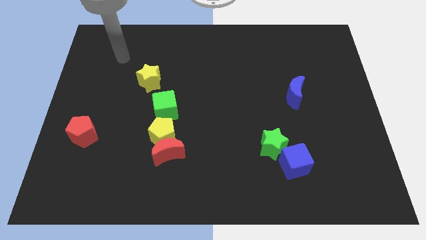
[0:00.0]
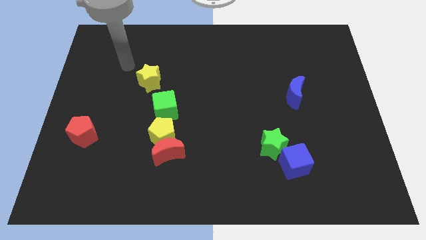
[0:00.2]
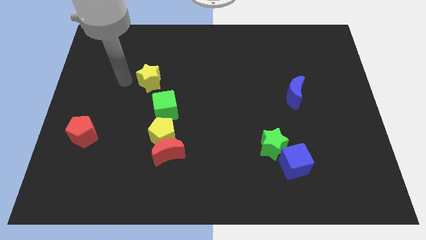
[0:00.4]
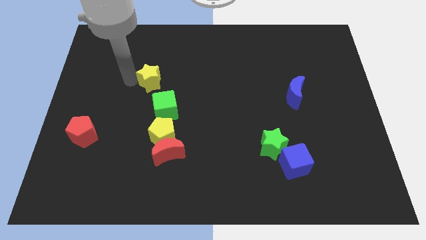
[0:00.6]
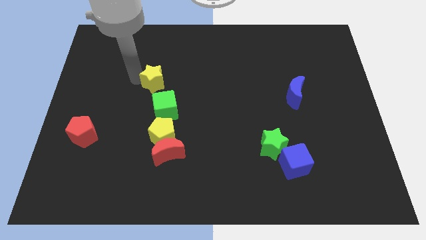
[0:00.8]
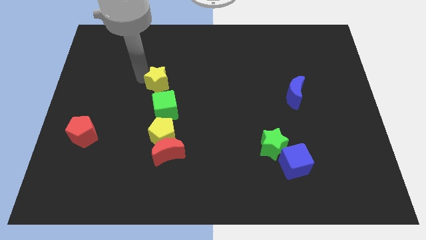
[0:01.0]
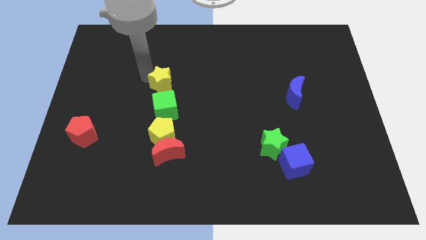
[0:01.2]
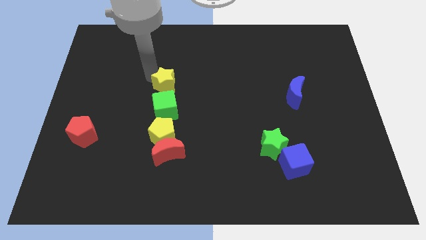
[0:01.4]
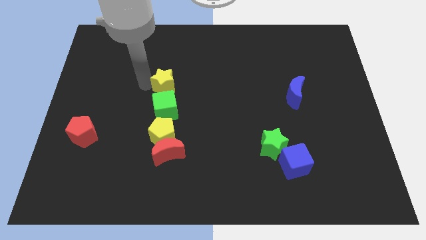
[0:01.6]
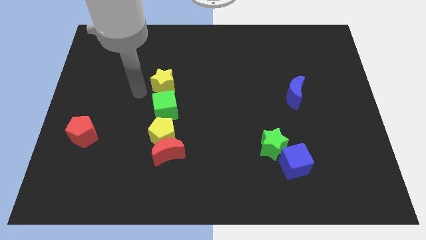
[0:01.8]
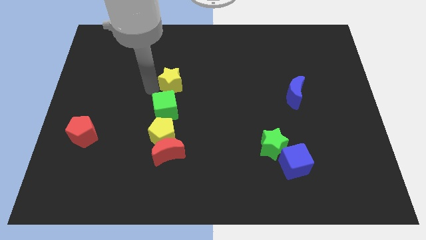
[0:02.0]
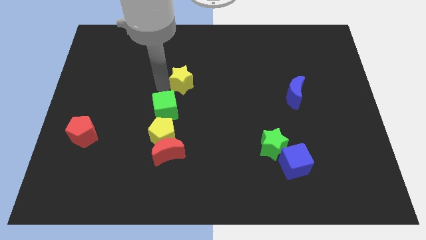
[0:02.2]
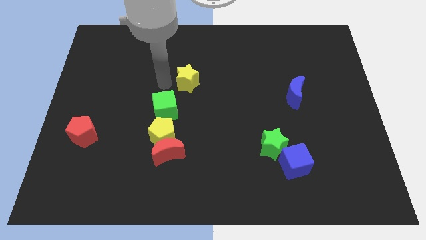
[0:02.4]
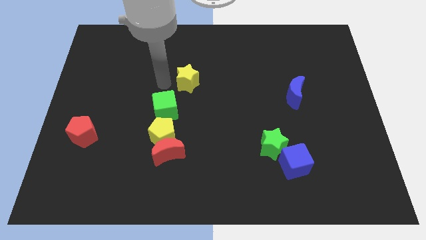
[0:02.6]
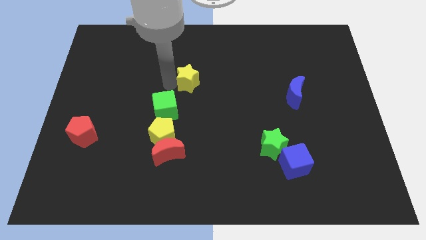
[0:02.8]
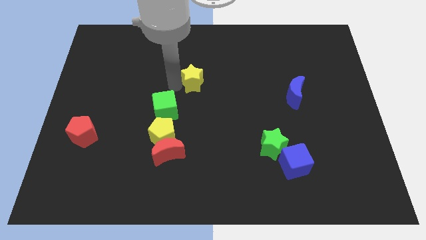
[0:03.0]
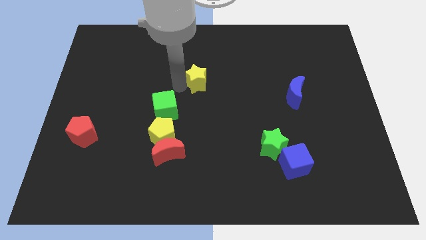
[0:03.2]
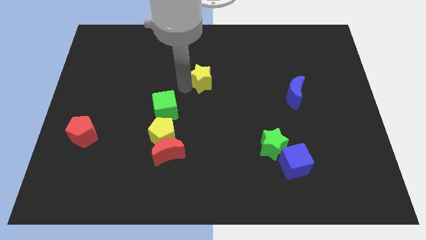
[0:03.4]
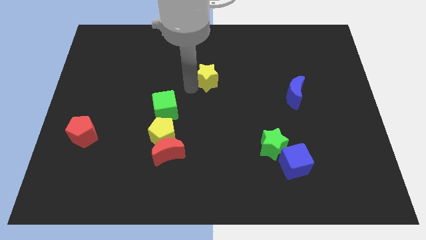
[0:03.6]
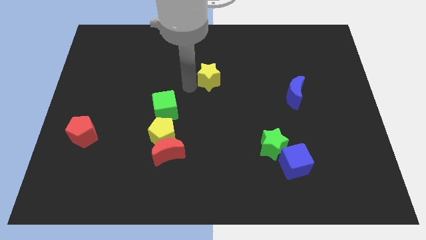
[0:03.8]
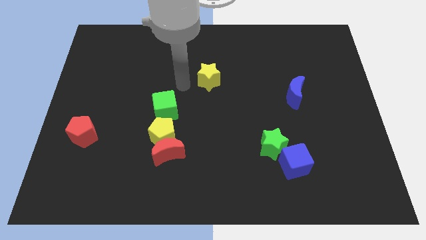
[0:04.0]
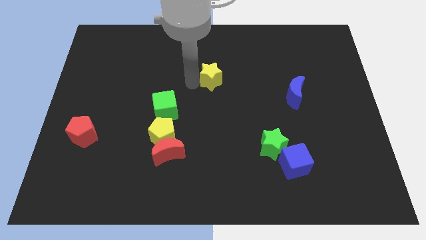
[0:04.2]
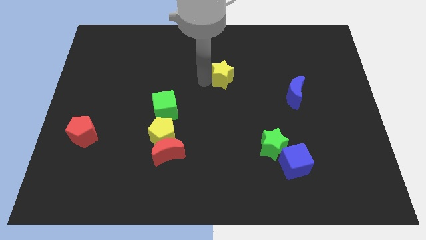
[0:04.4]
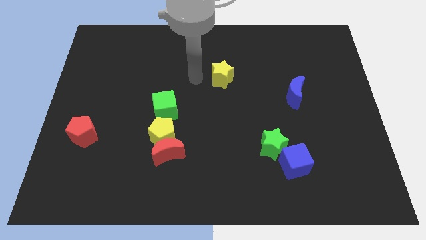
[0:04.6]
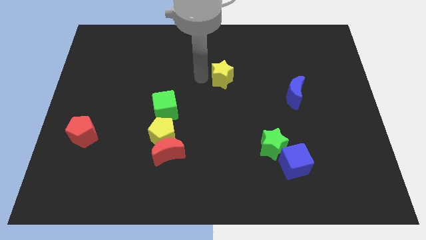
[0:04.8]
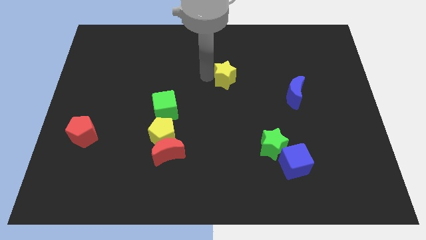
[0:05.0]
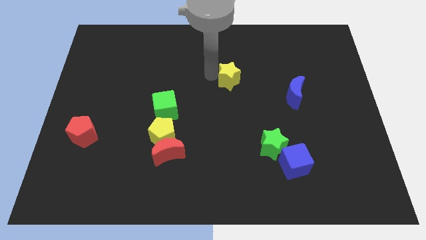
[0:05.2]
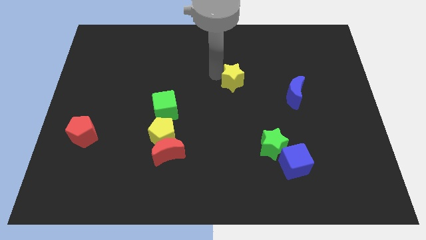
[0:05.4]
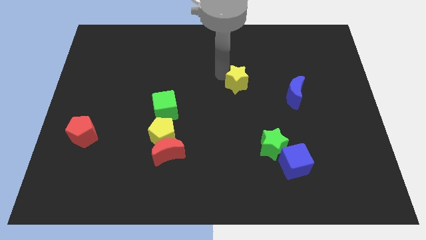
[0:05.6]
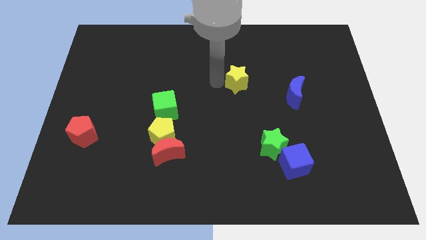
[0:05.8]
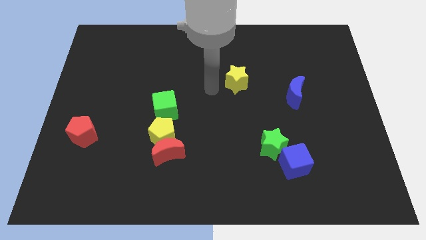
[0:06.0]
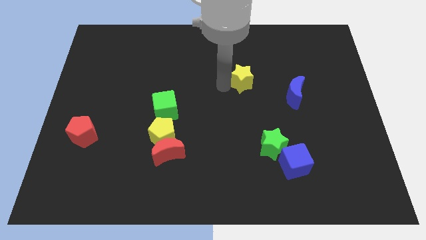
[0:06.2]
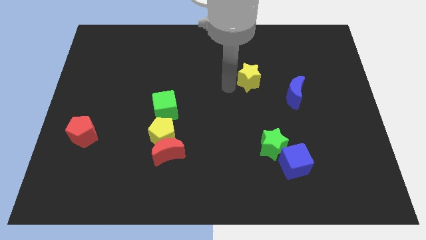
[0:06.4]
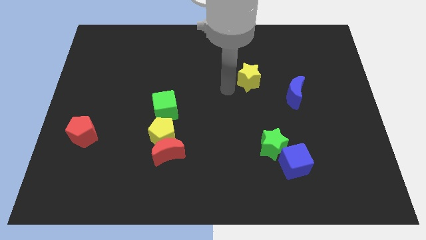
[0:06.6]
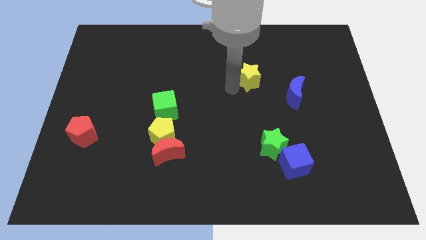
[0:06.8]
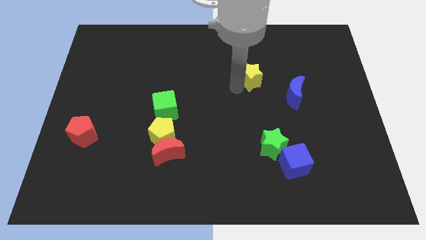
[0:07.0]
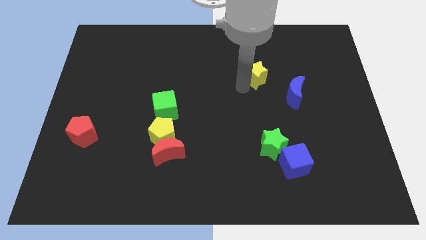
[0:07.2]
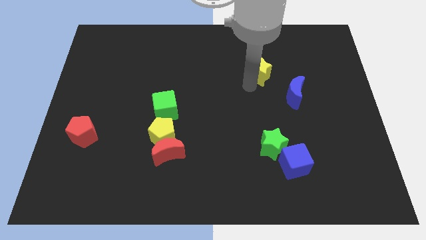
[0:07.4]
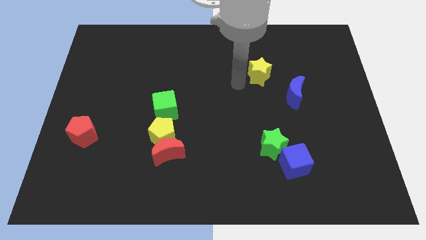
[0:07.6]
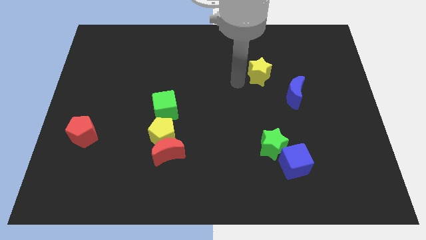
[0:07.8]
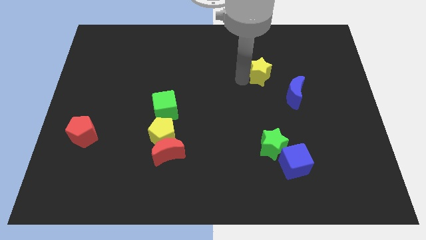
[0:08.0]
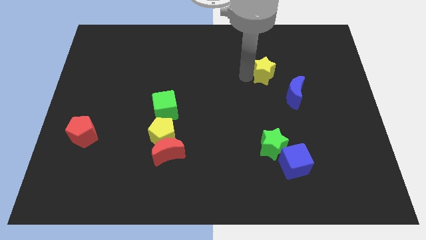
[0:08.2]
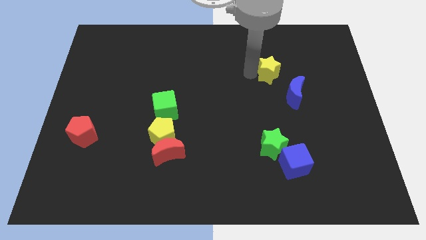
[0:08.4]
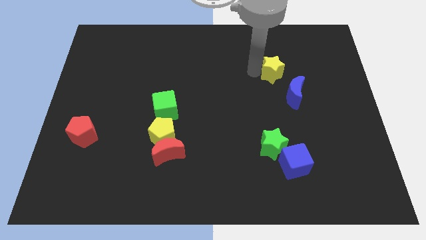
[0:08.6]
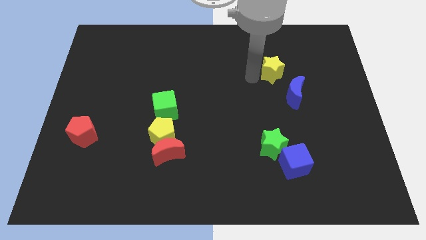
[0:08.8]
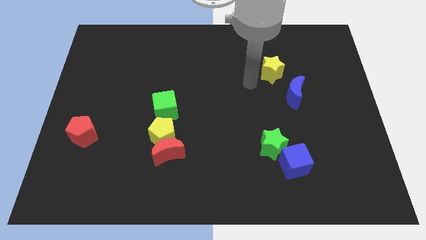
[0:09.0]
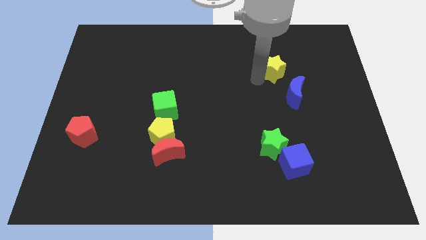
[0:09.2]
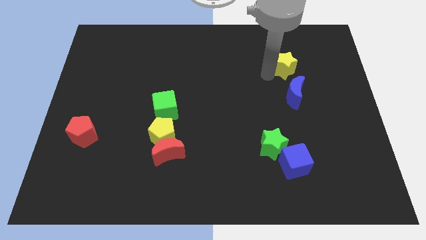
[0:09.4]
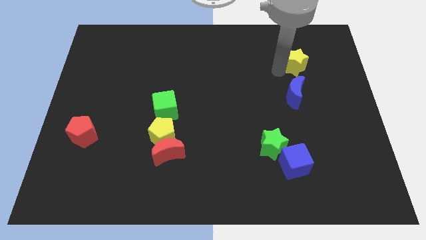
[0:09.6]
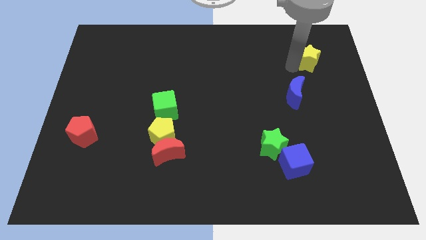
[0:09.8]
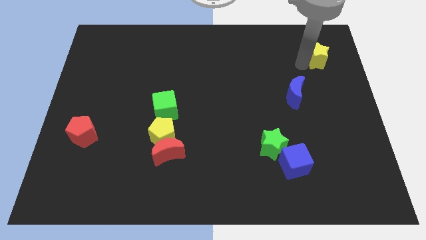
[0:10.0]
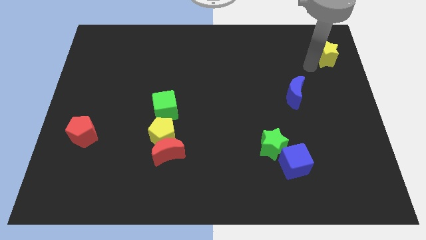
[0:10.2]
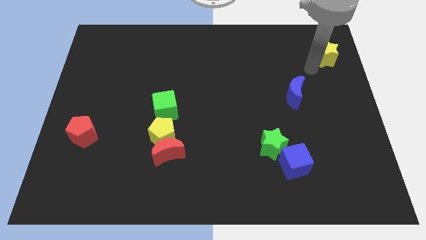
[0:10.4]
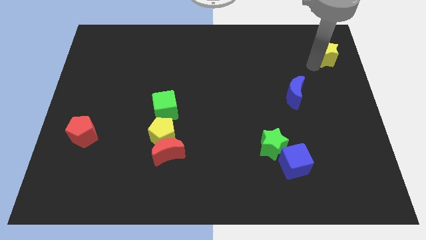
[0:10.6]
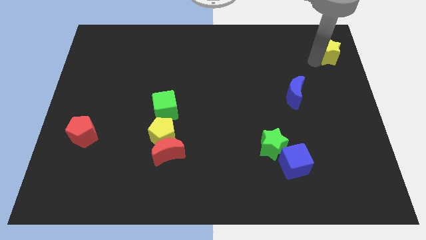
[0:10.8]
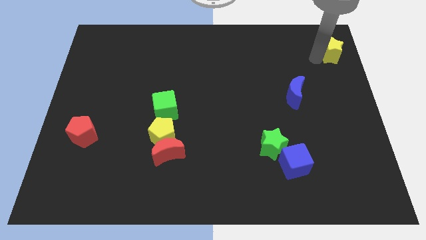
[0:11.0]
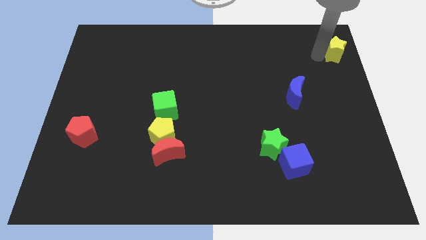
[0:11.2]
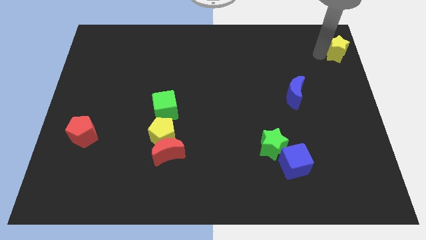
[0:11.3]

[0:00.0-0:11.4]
move the yellow star to the upper right corner

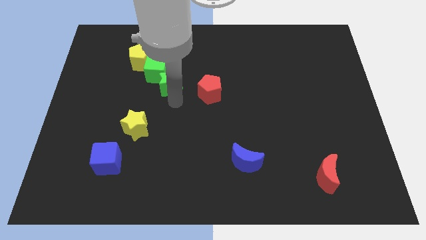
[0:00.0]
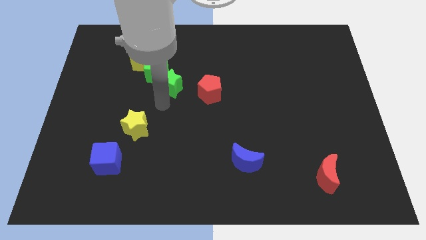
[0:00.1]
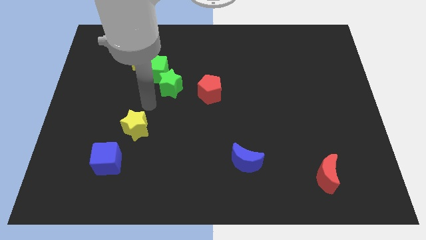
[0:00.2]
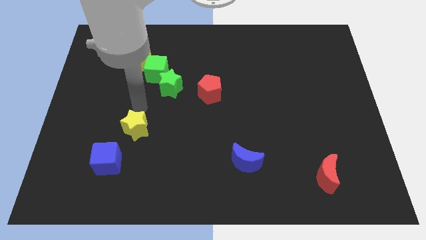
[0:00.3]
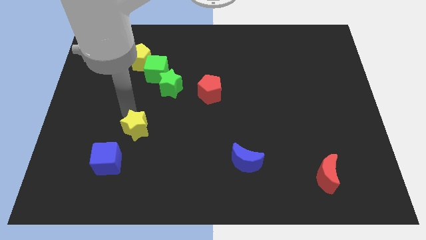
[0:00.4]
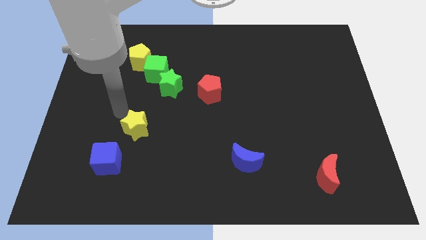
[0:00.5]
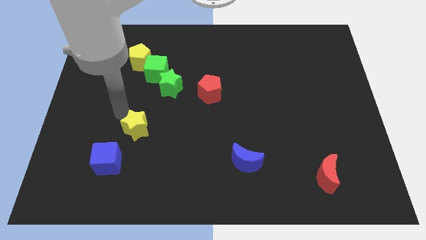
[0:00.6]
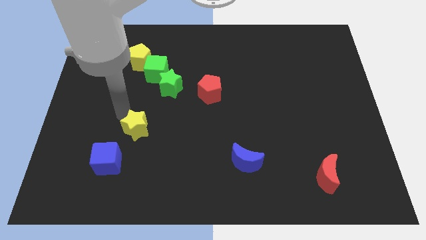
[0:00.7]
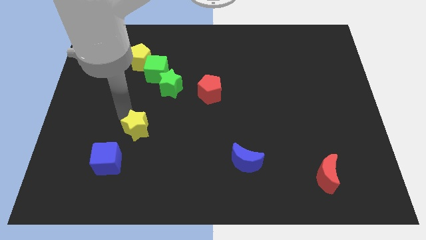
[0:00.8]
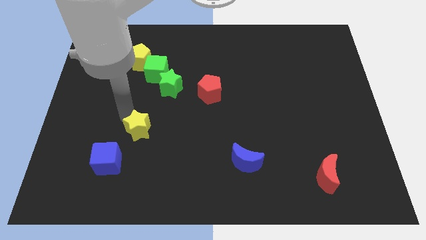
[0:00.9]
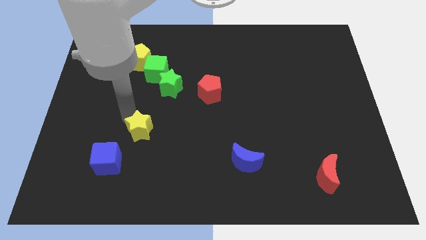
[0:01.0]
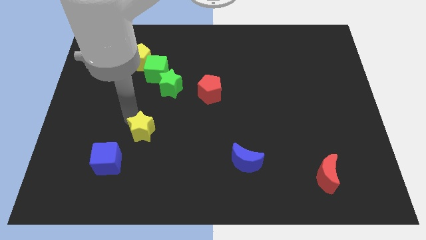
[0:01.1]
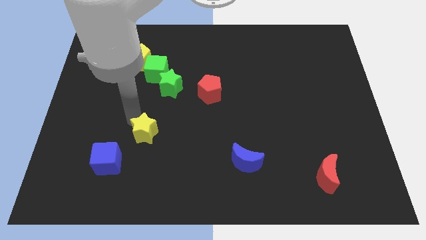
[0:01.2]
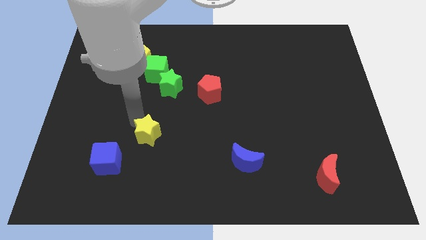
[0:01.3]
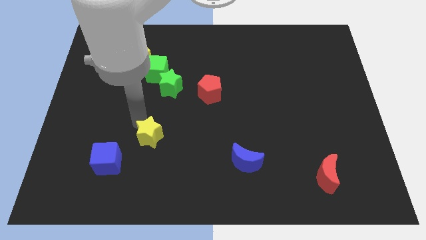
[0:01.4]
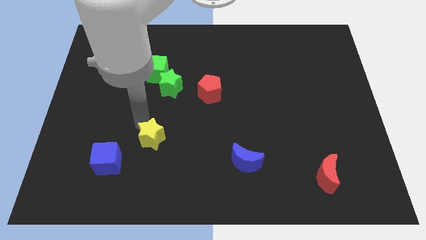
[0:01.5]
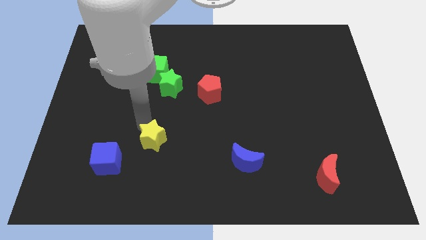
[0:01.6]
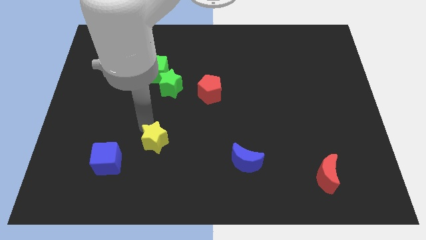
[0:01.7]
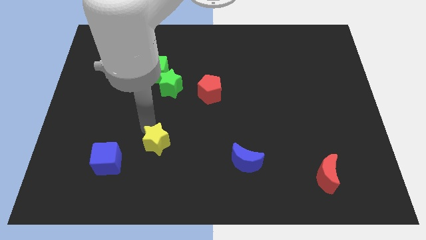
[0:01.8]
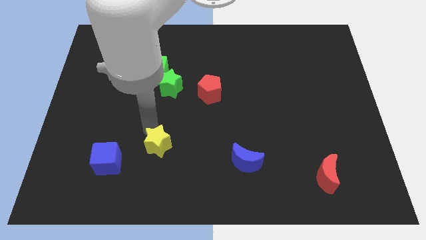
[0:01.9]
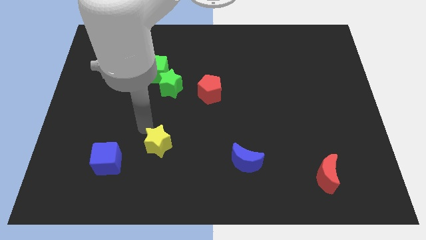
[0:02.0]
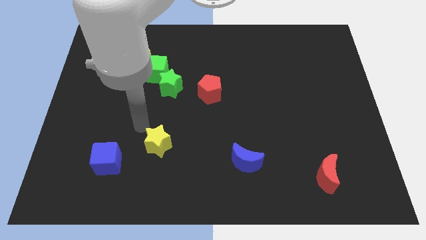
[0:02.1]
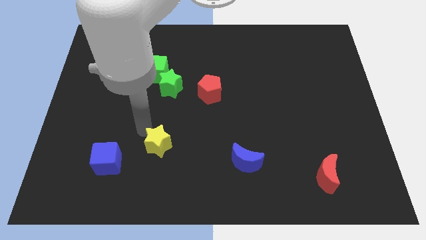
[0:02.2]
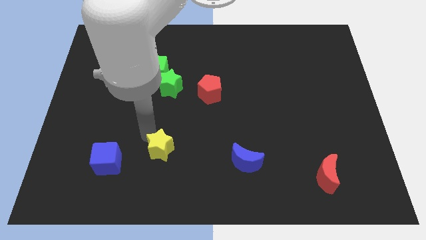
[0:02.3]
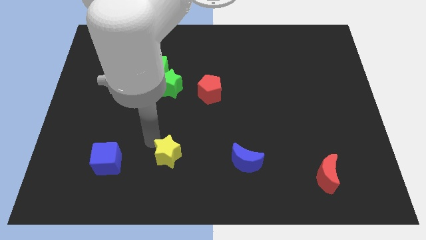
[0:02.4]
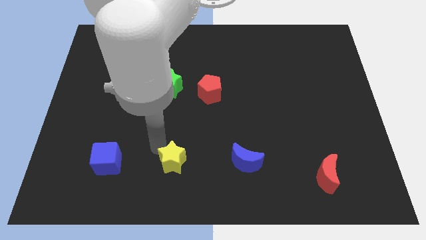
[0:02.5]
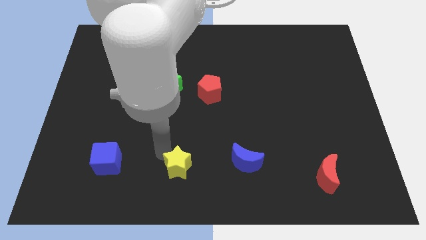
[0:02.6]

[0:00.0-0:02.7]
move the yellow star to the bottom side
